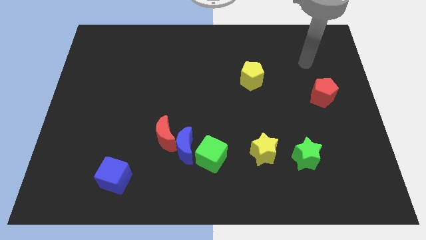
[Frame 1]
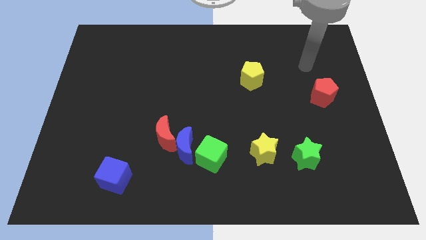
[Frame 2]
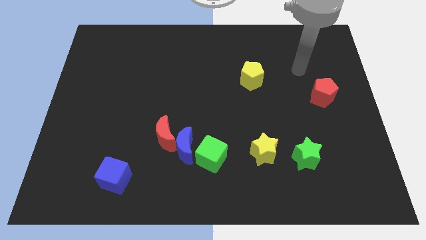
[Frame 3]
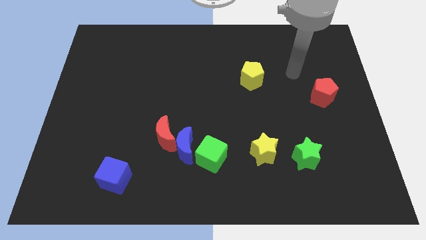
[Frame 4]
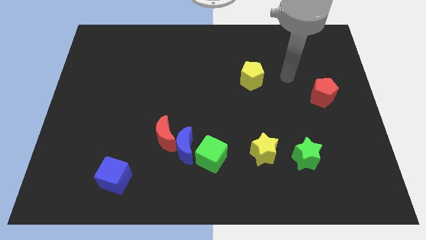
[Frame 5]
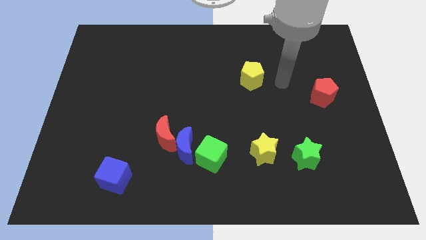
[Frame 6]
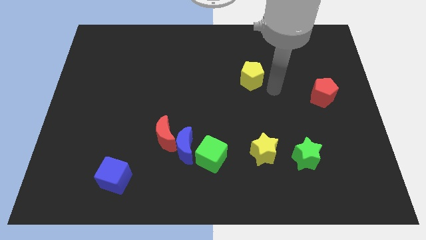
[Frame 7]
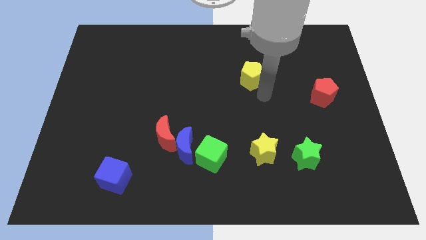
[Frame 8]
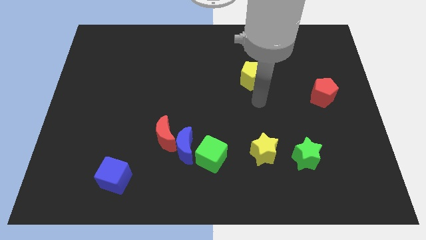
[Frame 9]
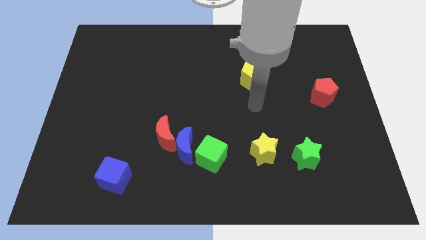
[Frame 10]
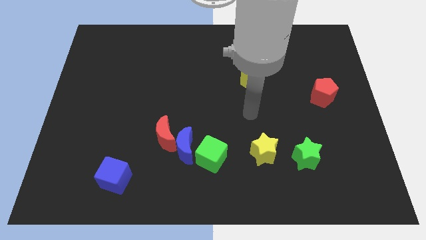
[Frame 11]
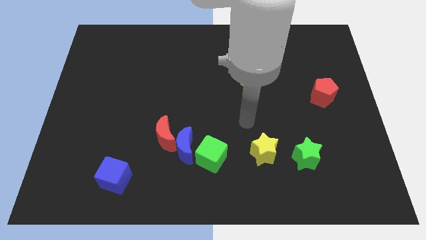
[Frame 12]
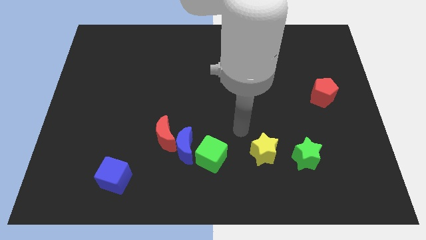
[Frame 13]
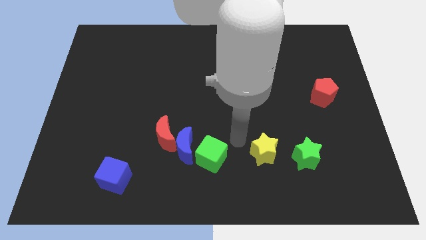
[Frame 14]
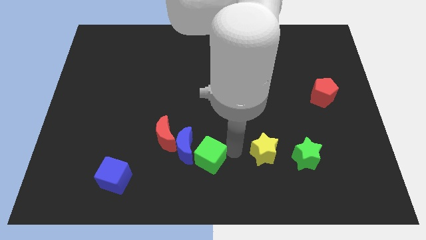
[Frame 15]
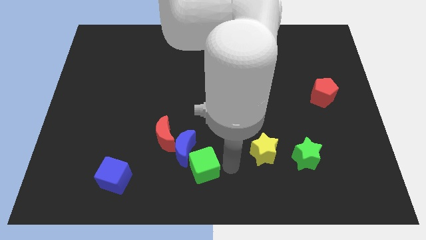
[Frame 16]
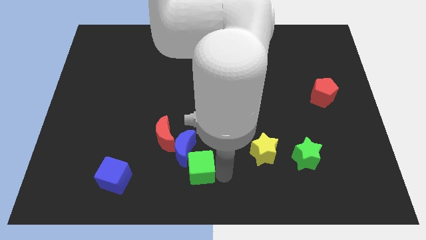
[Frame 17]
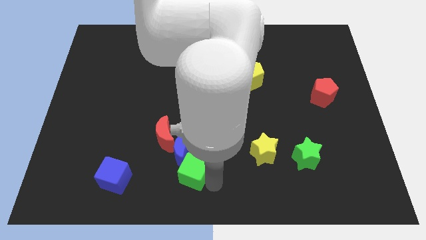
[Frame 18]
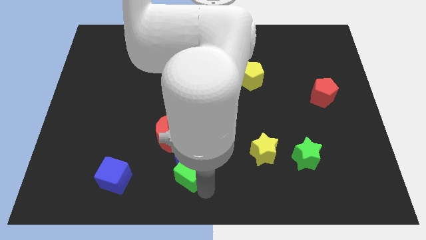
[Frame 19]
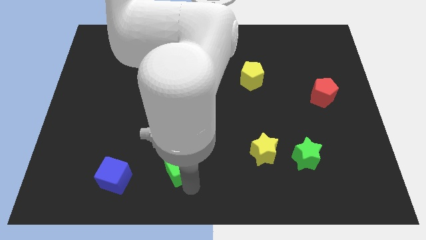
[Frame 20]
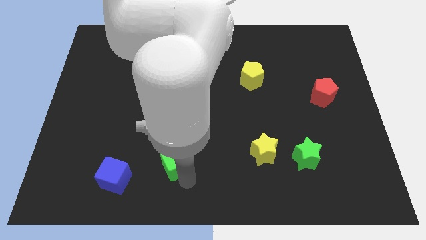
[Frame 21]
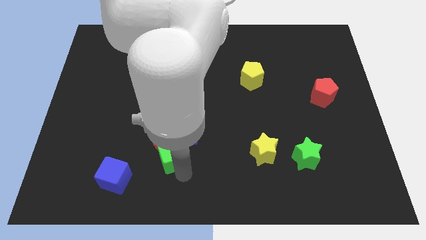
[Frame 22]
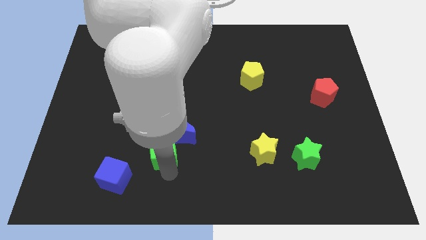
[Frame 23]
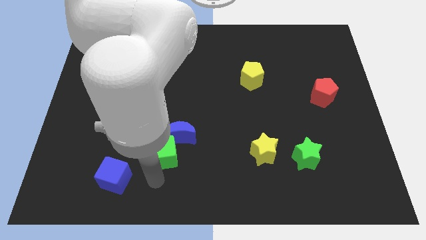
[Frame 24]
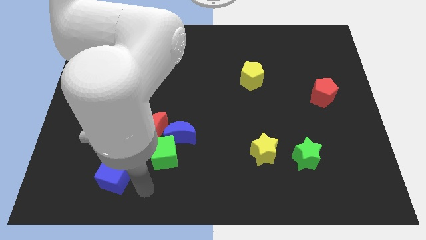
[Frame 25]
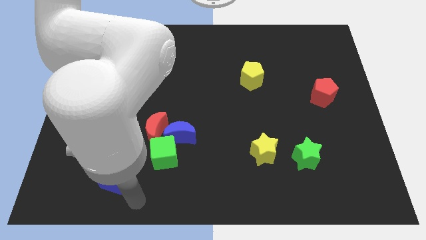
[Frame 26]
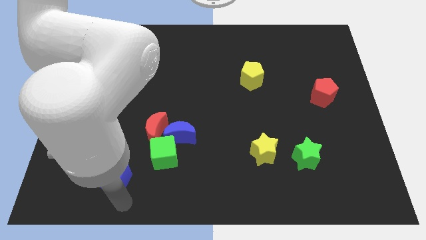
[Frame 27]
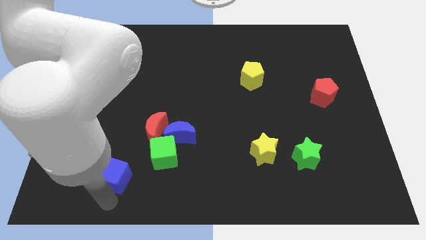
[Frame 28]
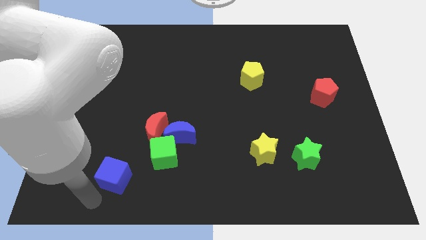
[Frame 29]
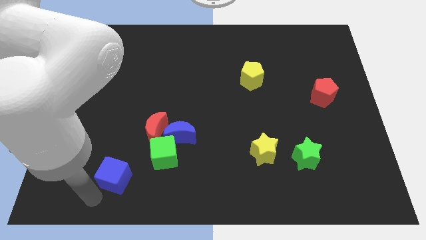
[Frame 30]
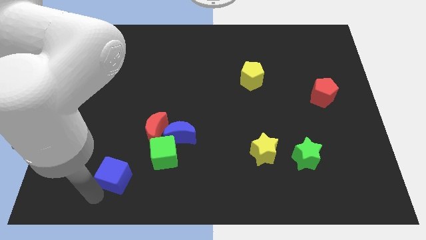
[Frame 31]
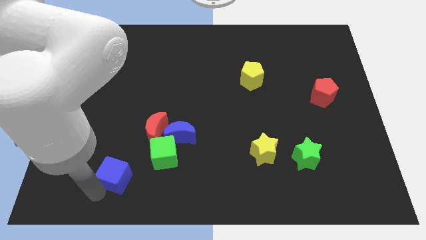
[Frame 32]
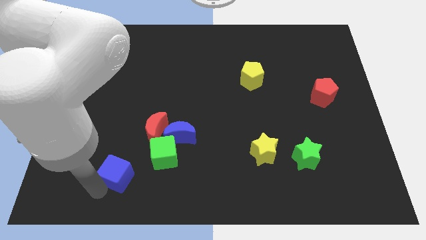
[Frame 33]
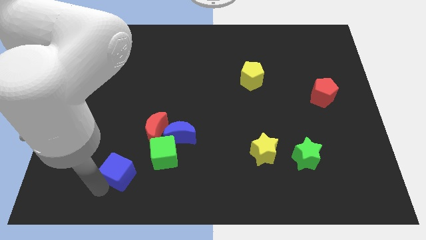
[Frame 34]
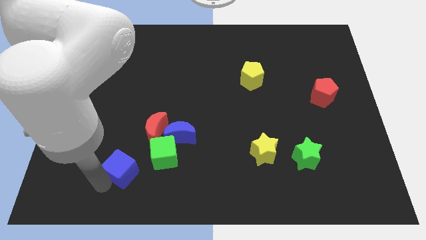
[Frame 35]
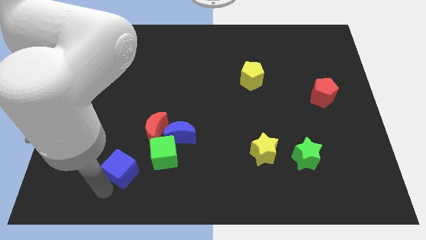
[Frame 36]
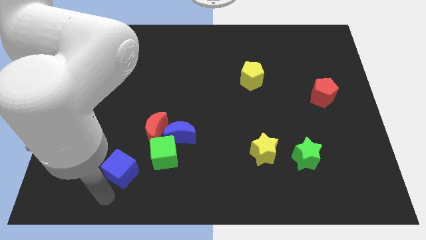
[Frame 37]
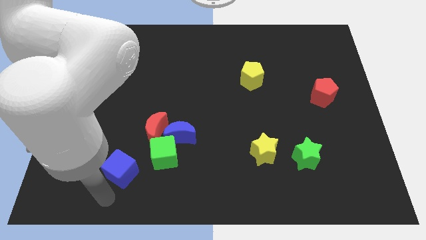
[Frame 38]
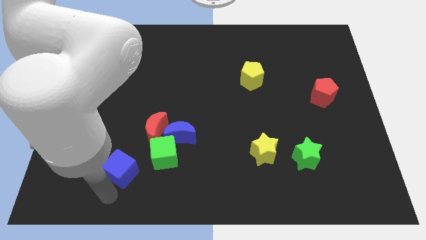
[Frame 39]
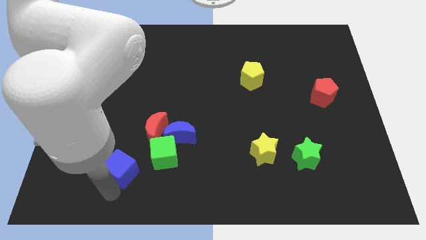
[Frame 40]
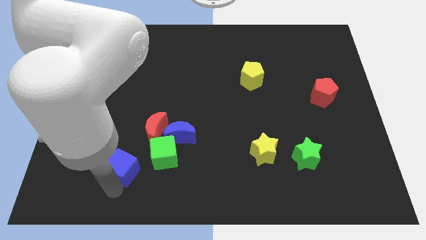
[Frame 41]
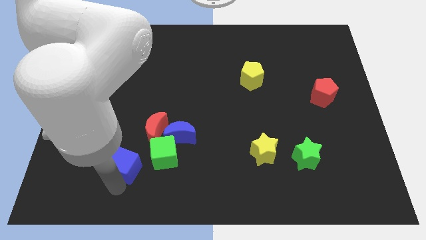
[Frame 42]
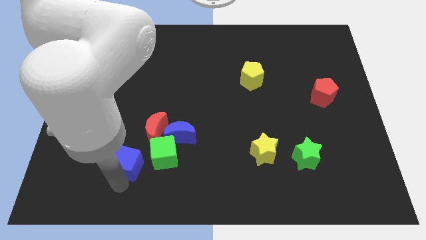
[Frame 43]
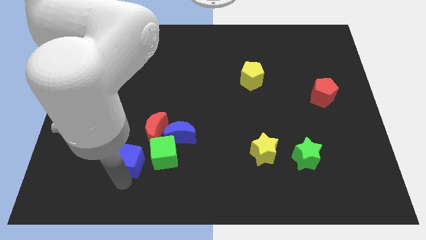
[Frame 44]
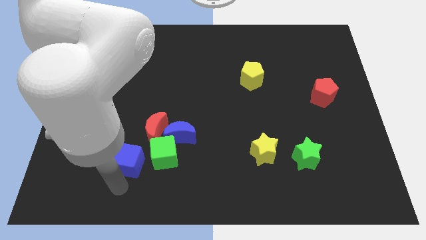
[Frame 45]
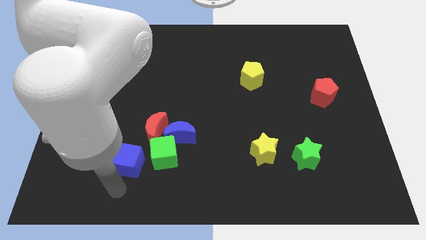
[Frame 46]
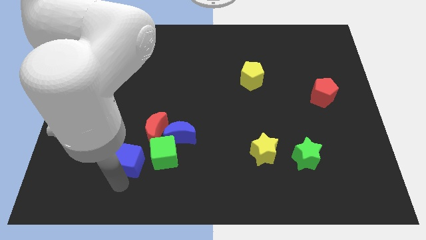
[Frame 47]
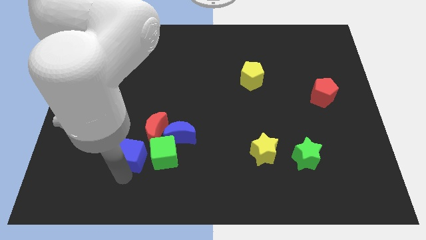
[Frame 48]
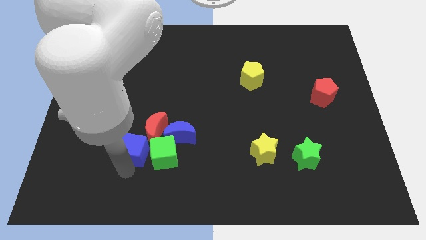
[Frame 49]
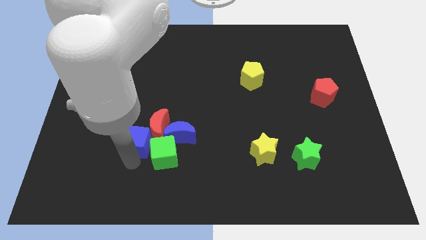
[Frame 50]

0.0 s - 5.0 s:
push the blue cube a little upwards

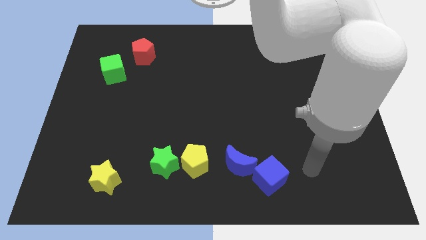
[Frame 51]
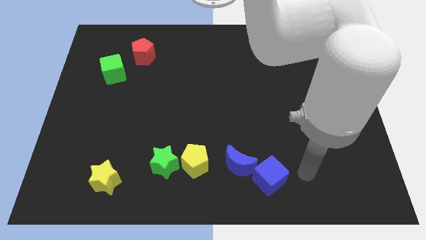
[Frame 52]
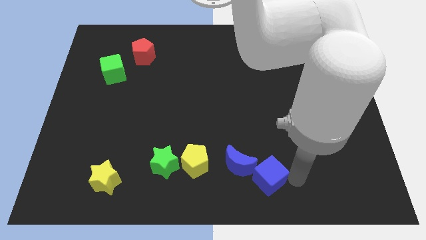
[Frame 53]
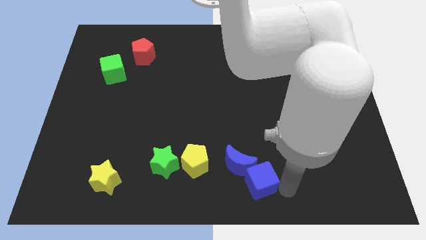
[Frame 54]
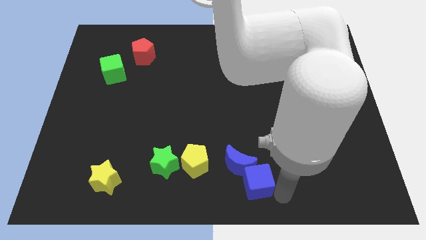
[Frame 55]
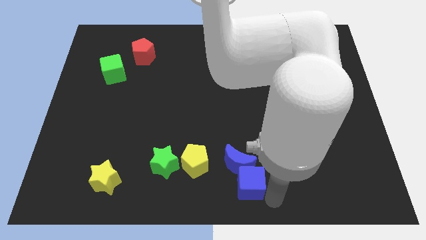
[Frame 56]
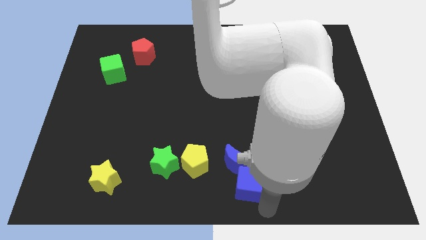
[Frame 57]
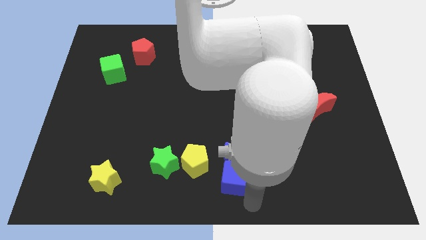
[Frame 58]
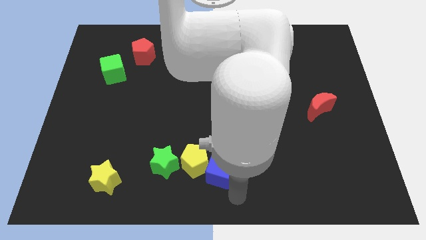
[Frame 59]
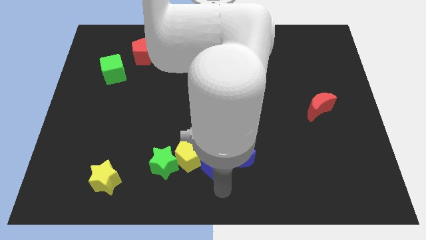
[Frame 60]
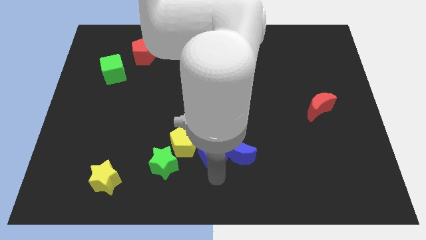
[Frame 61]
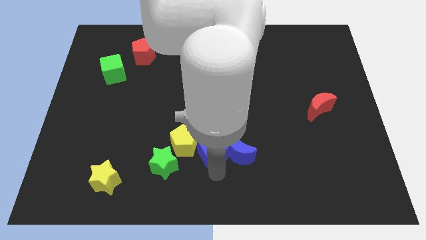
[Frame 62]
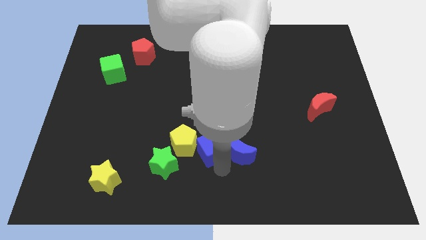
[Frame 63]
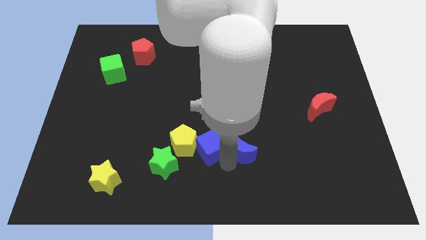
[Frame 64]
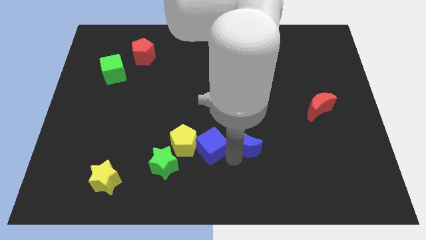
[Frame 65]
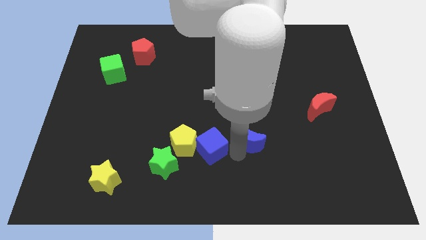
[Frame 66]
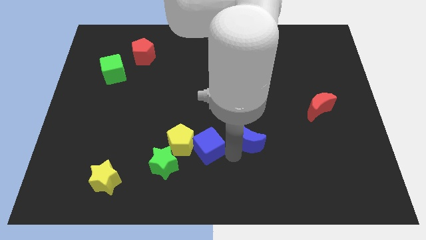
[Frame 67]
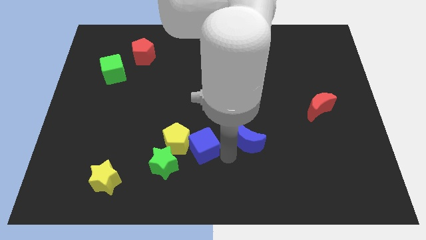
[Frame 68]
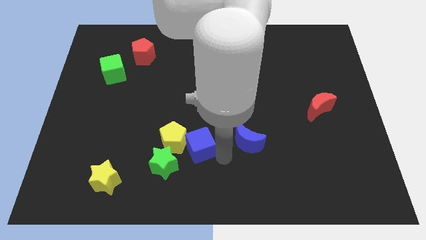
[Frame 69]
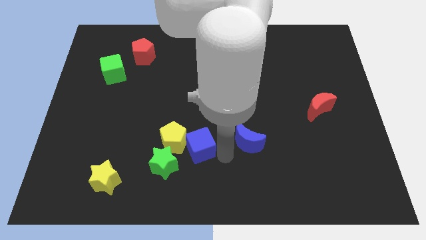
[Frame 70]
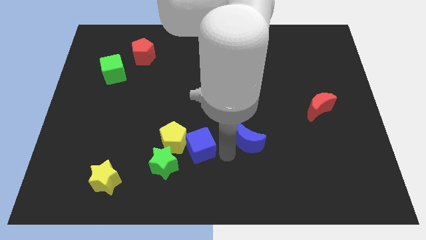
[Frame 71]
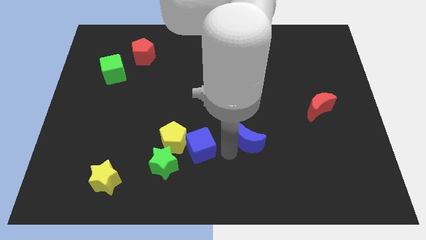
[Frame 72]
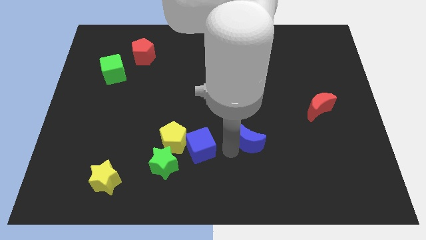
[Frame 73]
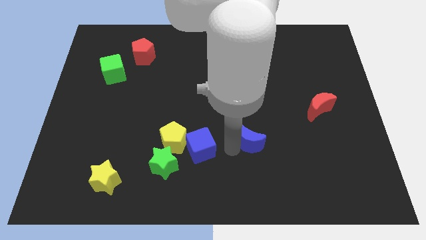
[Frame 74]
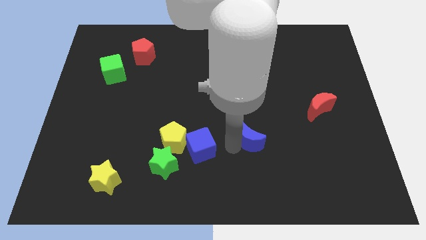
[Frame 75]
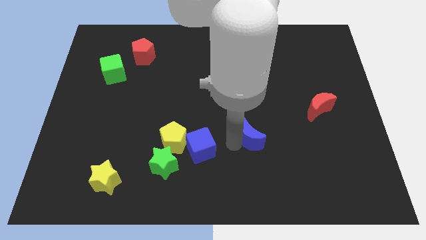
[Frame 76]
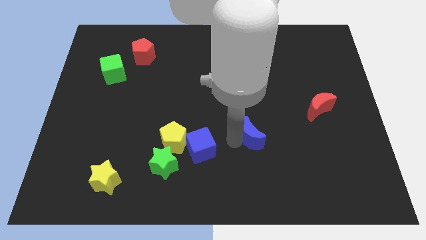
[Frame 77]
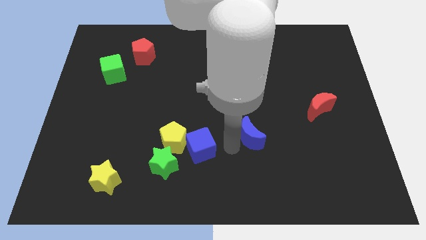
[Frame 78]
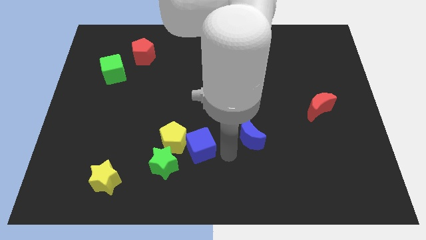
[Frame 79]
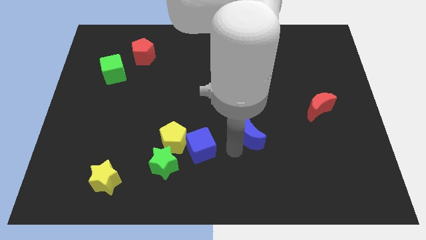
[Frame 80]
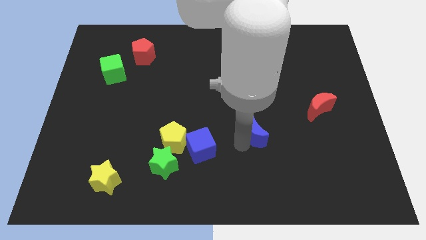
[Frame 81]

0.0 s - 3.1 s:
move the blue moon diagonally up and right a little
